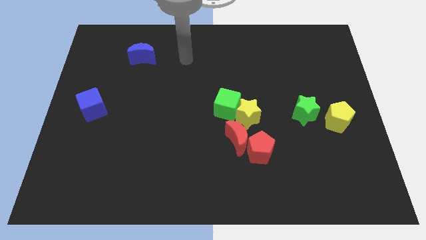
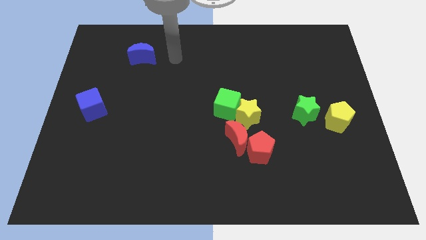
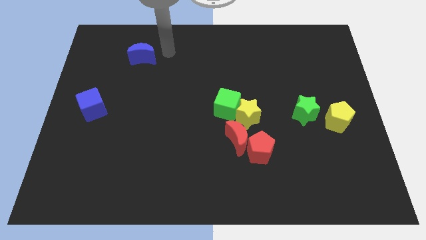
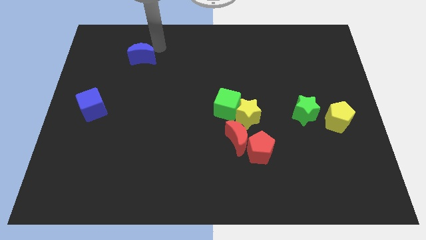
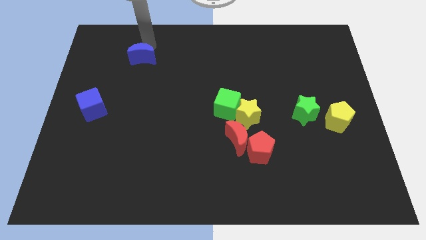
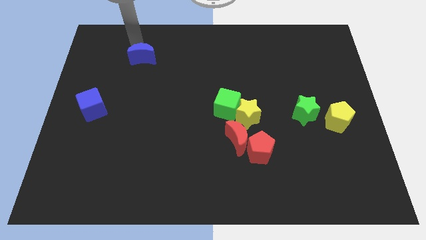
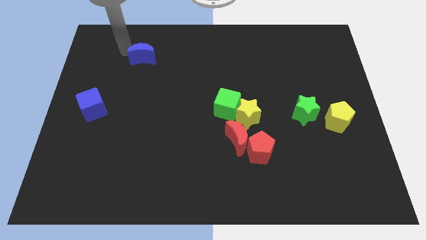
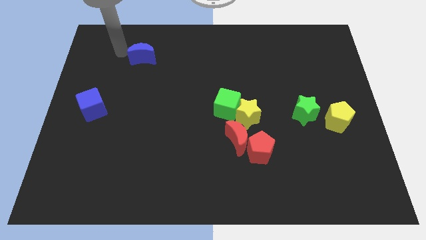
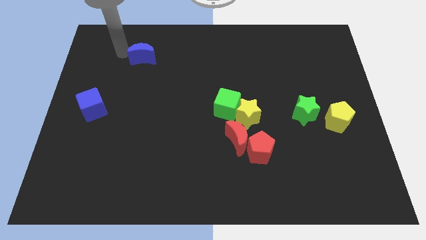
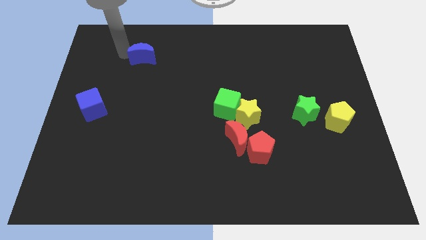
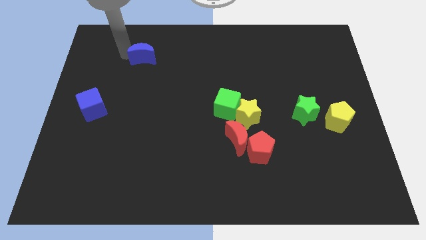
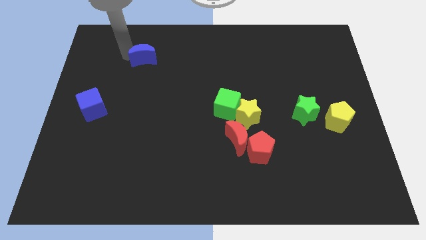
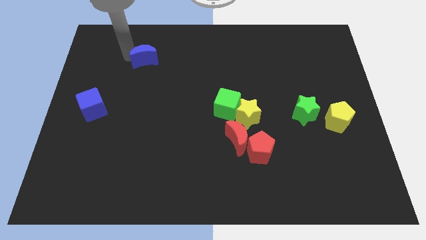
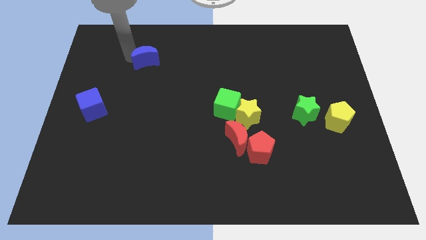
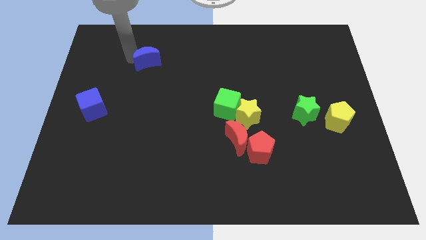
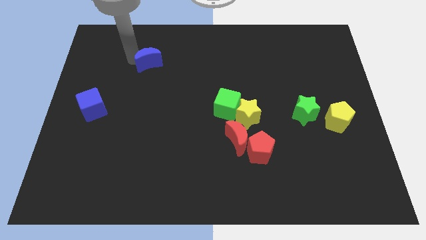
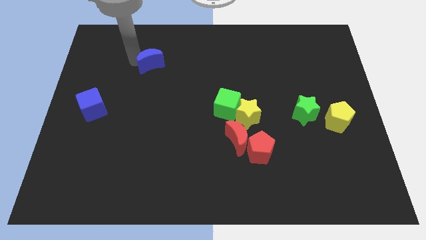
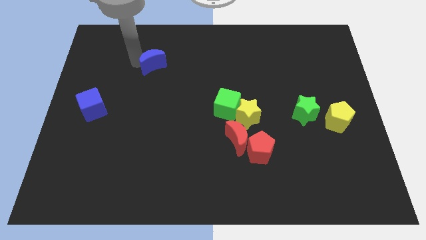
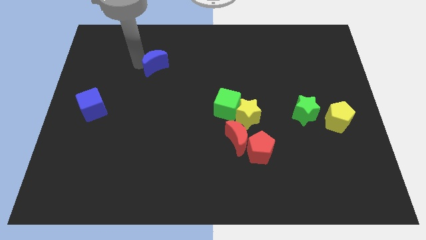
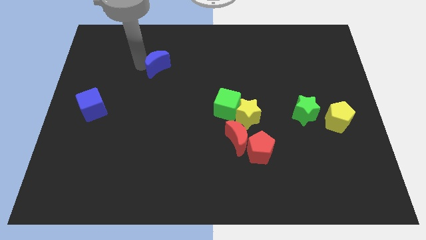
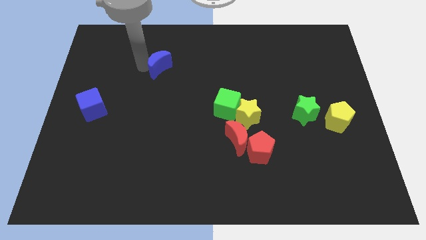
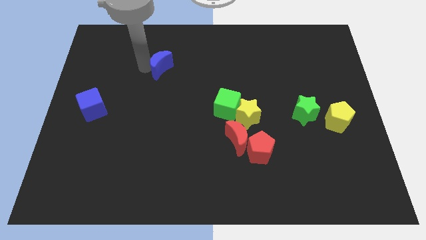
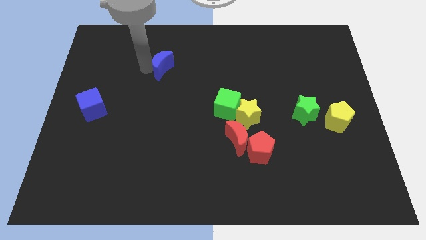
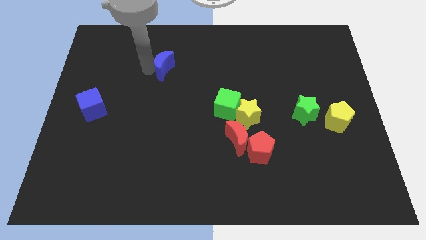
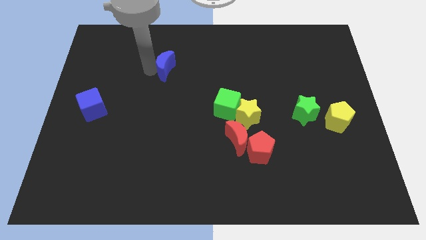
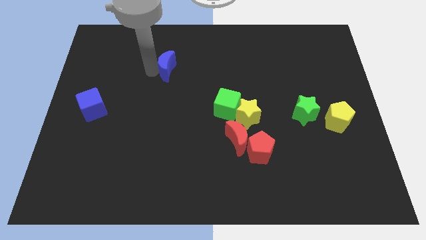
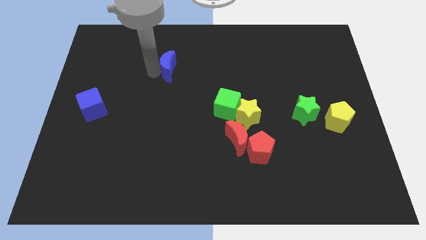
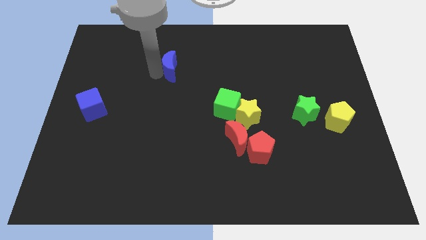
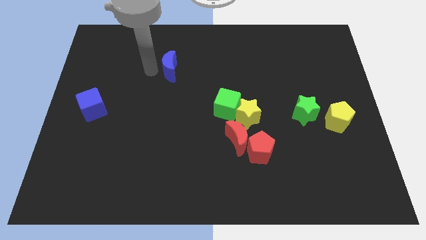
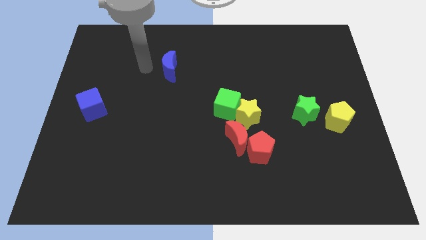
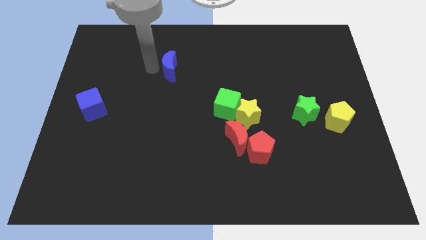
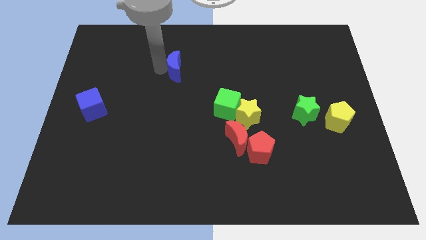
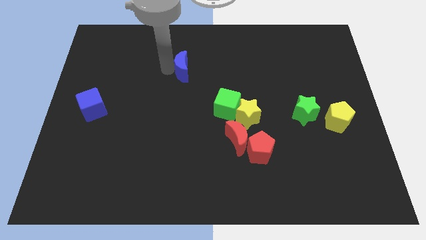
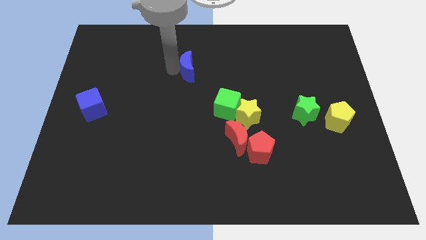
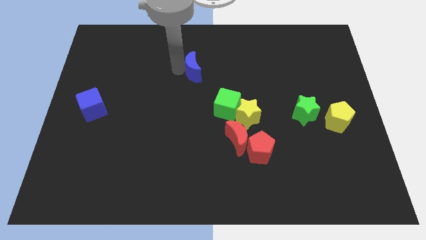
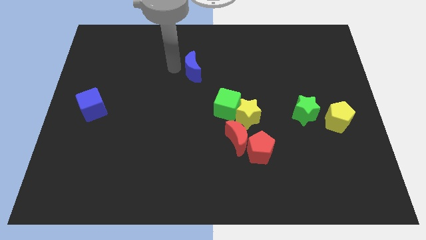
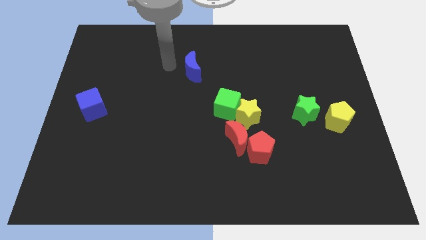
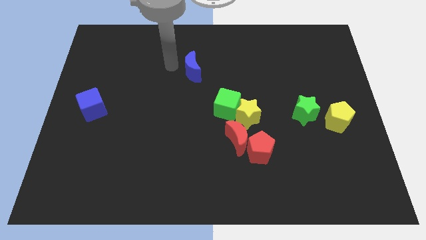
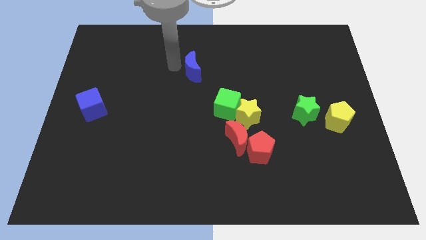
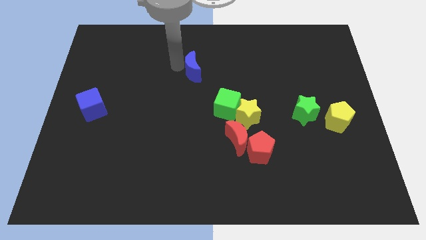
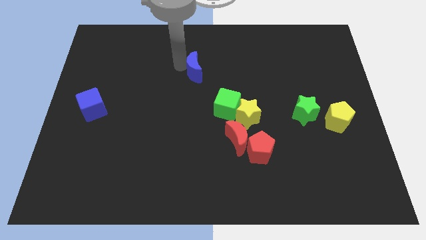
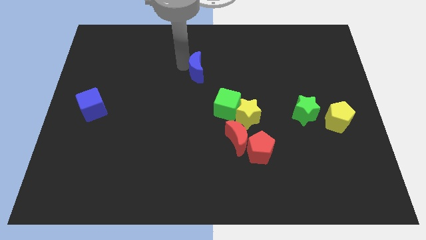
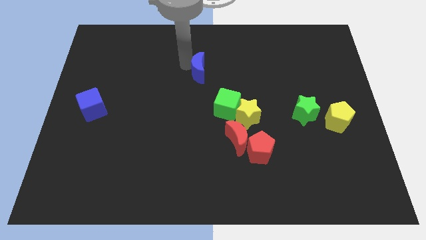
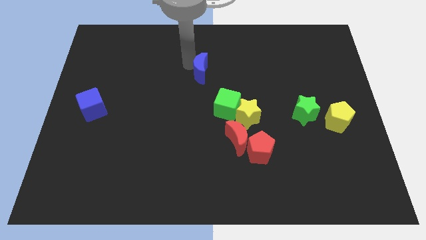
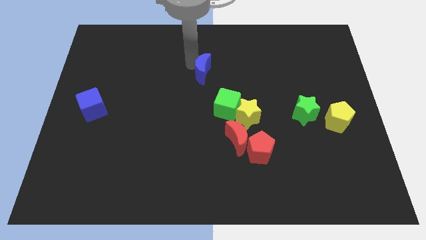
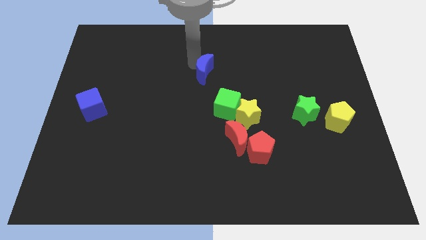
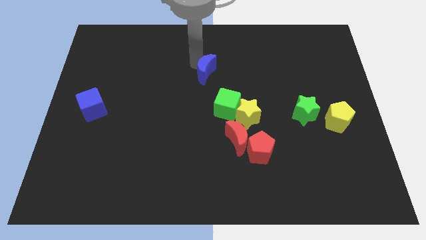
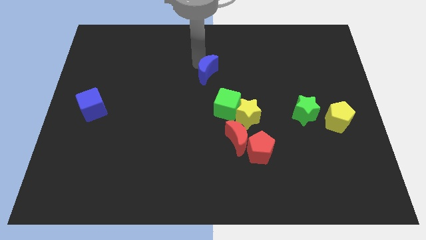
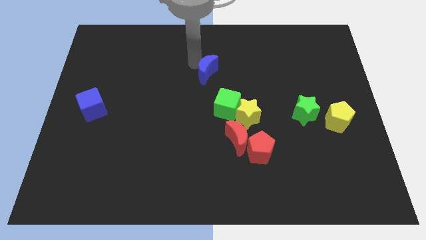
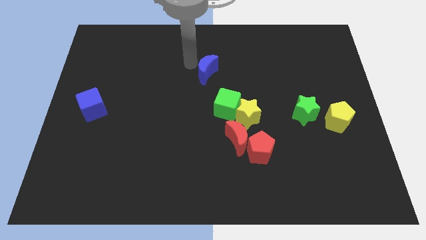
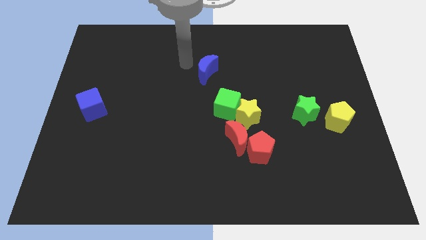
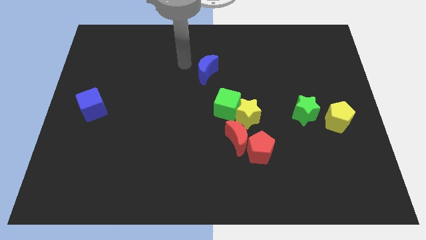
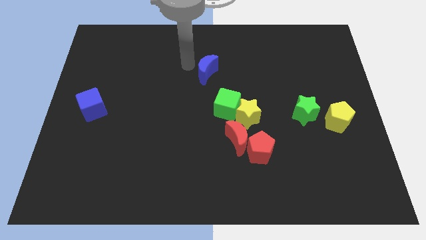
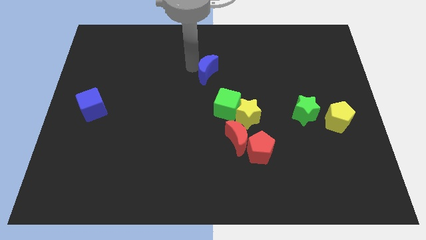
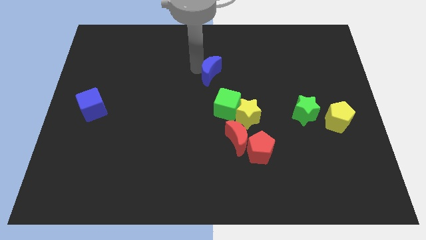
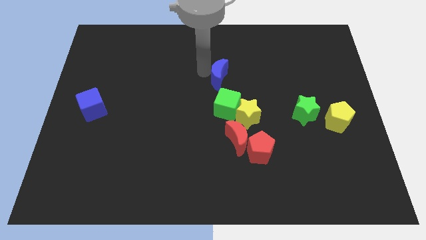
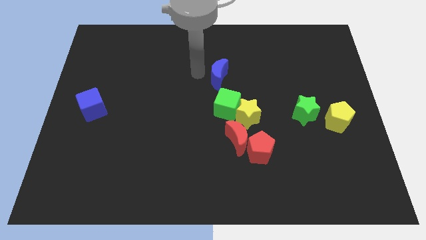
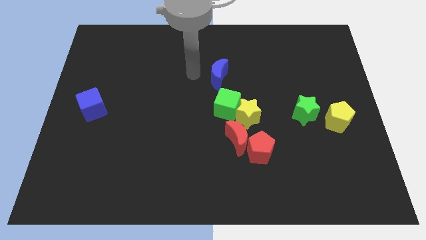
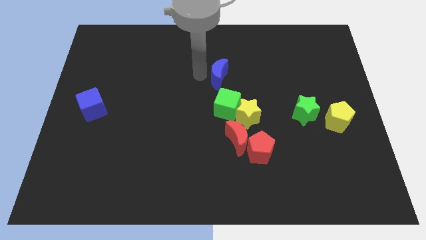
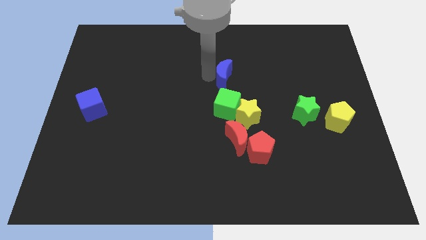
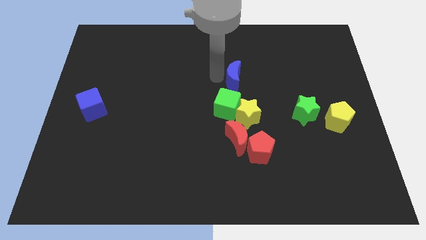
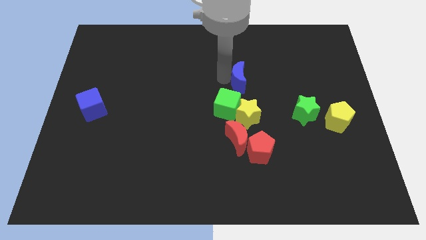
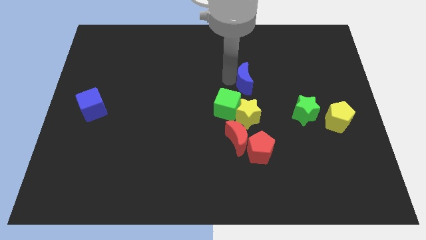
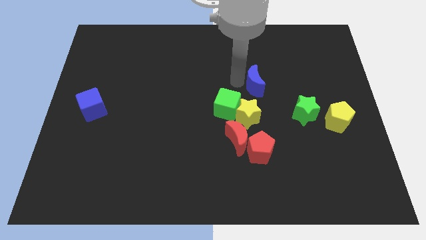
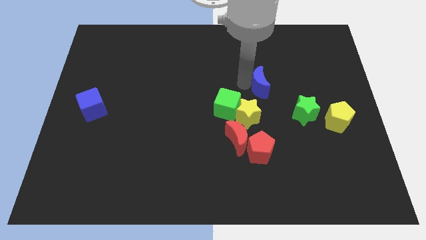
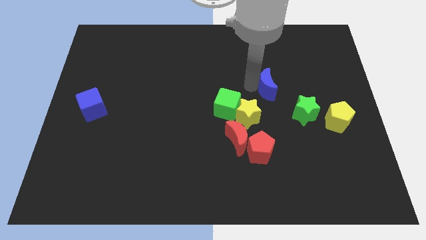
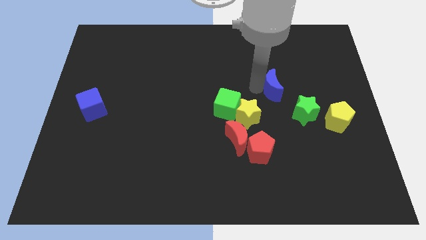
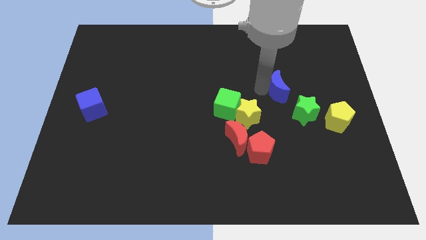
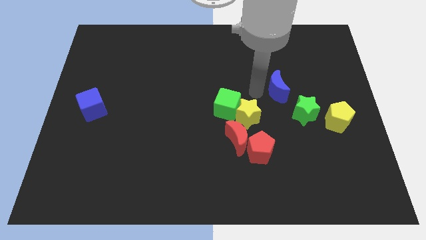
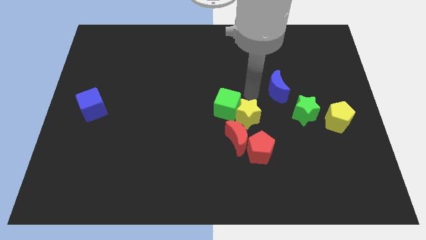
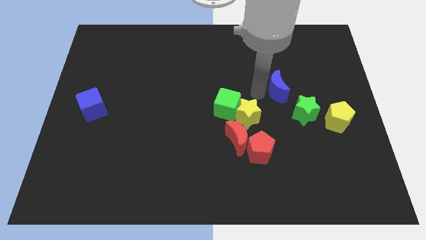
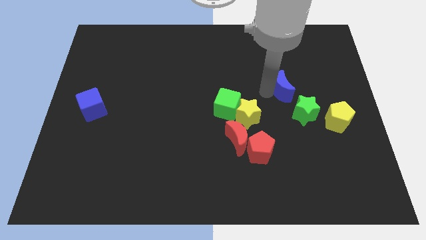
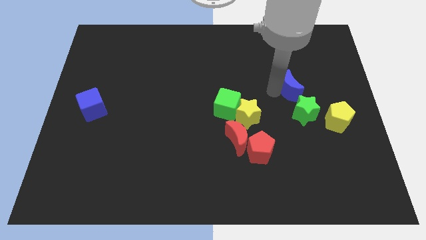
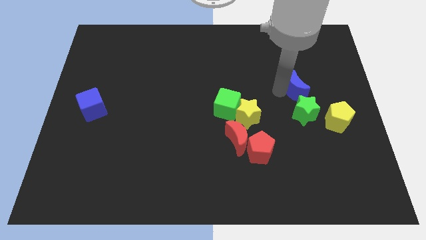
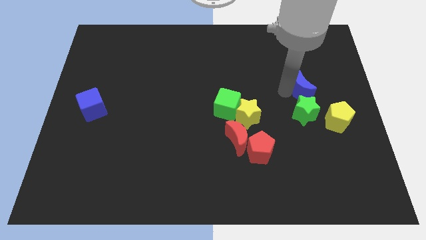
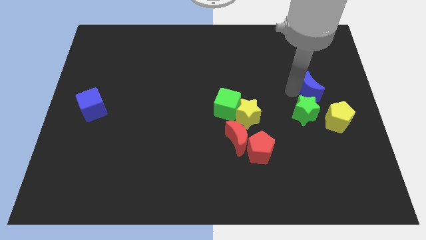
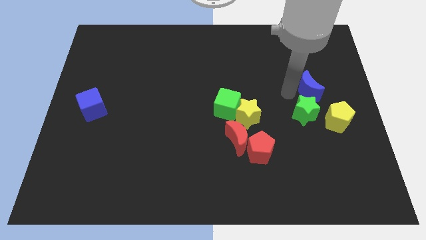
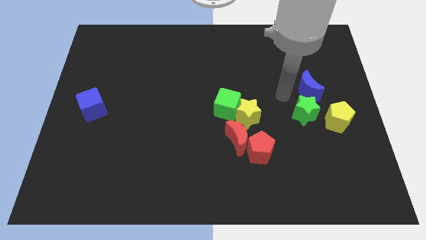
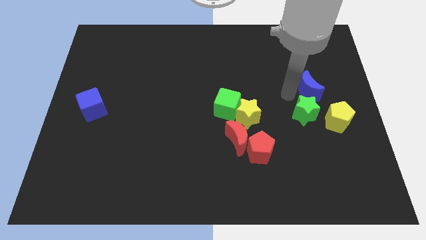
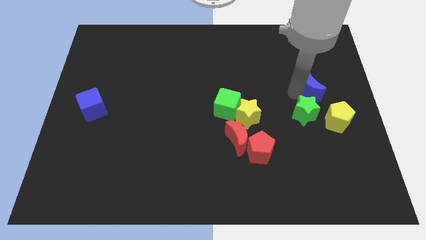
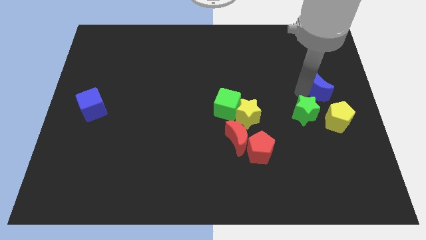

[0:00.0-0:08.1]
put the blue moon to the top of the yellow pentagon
